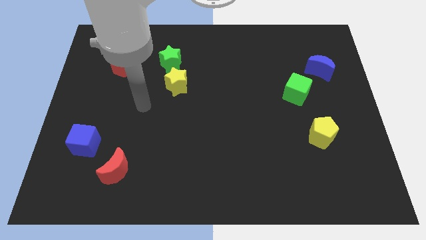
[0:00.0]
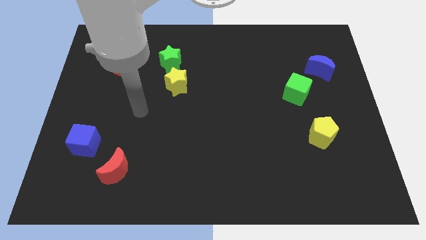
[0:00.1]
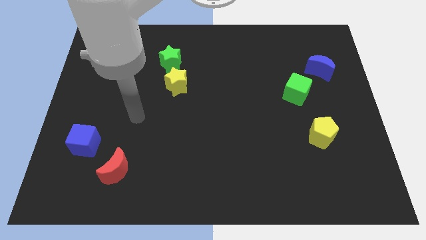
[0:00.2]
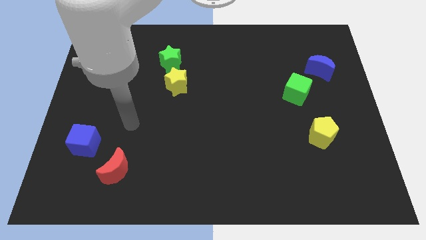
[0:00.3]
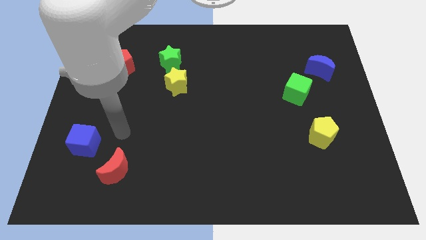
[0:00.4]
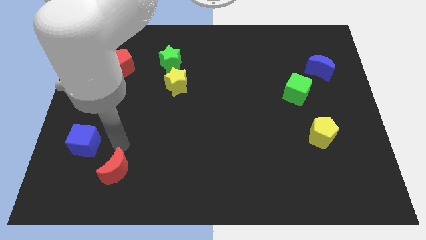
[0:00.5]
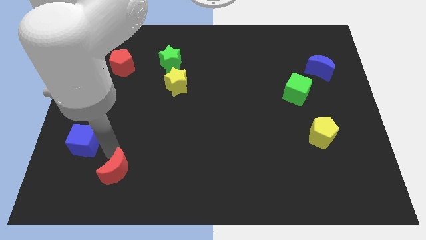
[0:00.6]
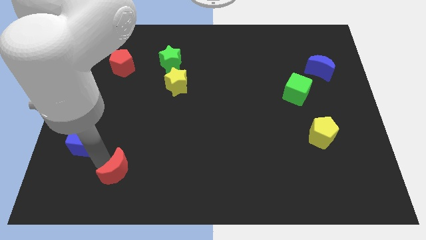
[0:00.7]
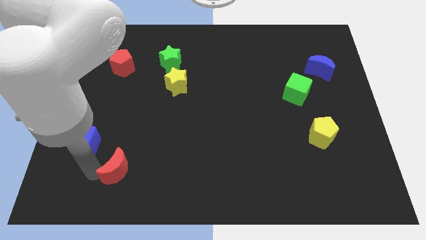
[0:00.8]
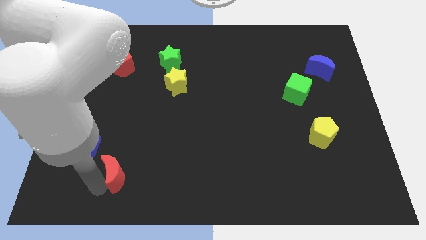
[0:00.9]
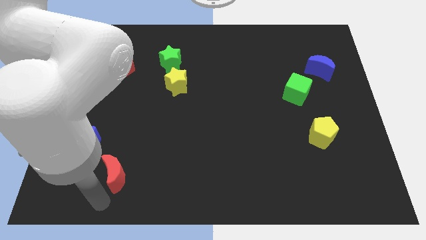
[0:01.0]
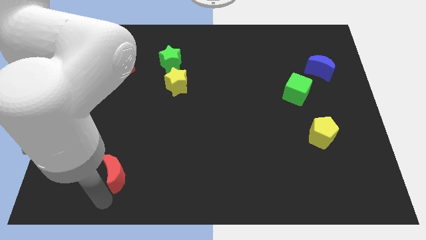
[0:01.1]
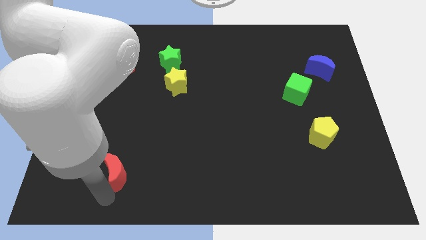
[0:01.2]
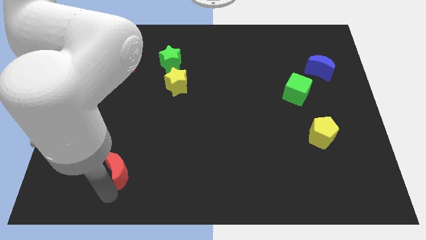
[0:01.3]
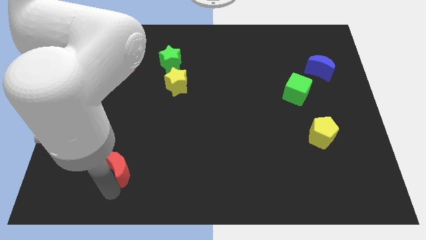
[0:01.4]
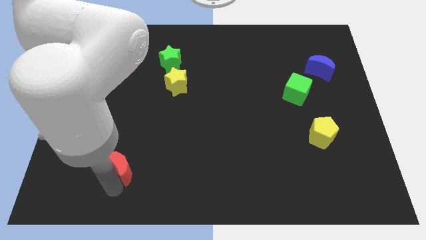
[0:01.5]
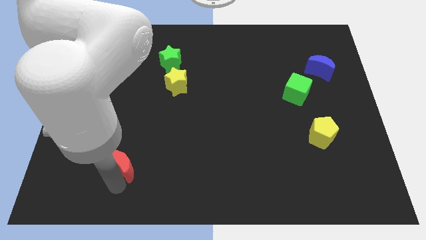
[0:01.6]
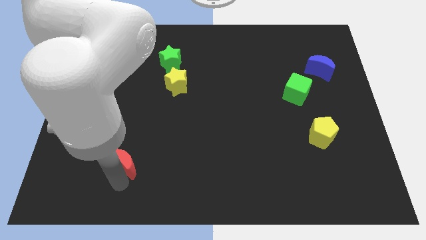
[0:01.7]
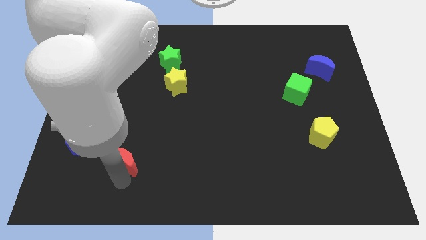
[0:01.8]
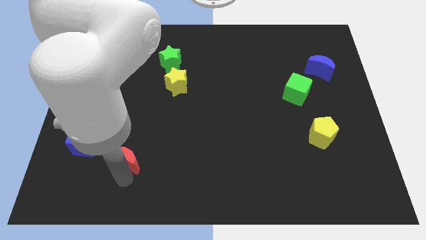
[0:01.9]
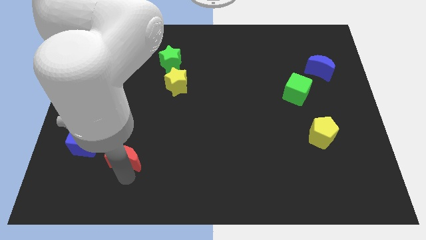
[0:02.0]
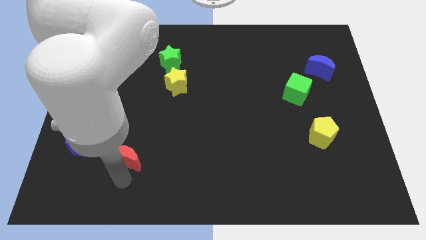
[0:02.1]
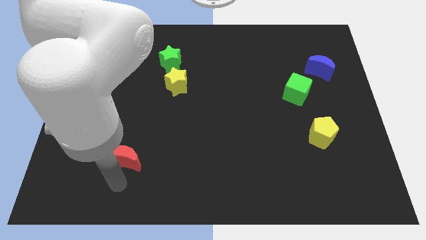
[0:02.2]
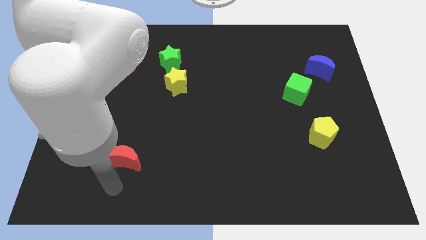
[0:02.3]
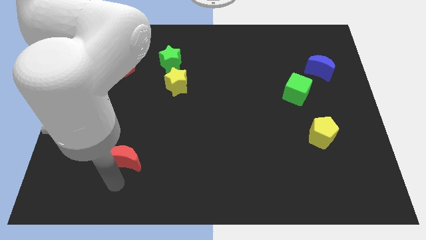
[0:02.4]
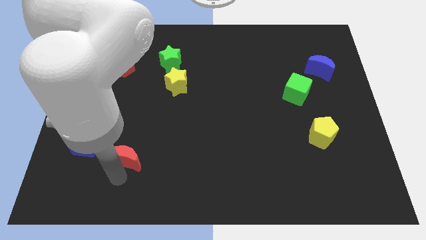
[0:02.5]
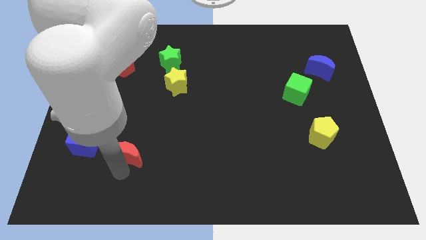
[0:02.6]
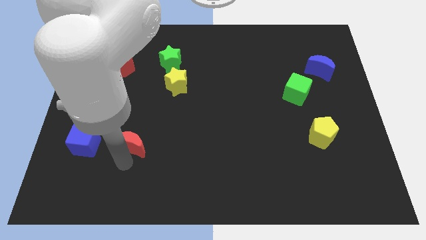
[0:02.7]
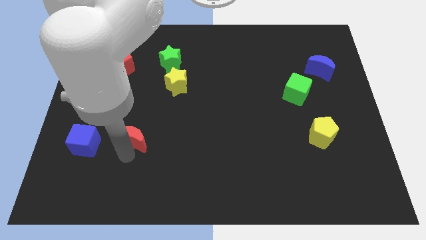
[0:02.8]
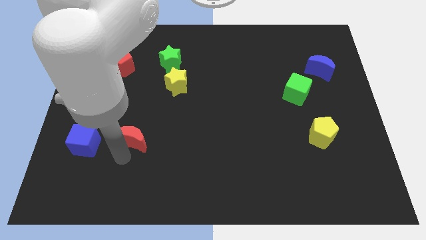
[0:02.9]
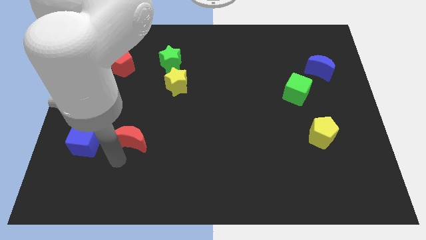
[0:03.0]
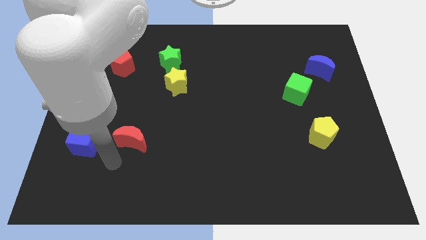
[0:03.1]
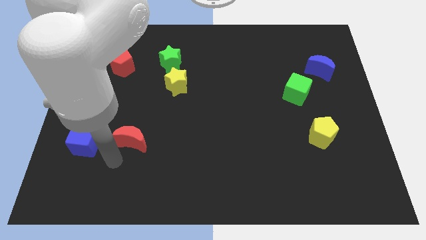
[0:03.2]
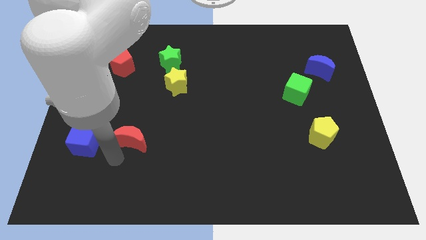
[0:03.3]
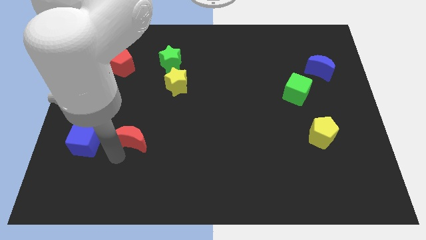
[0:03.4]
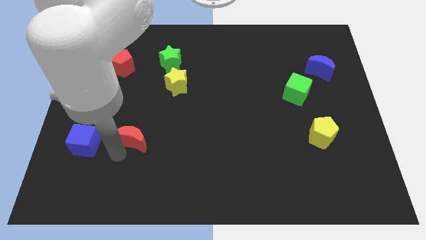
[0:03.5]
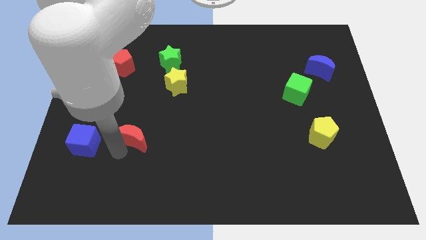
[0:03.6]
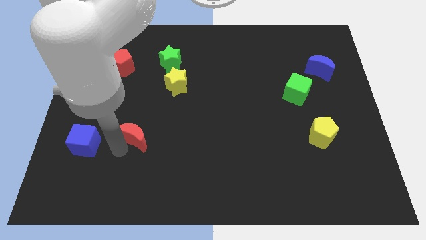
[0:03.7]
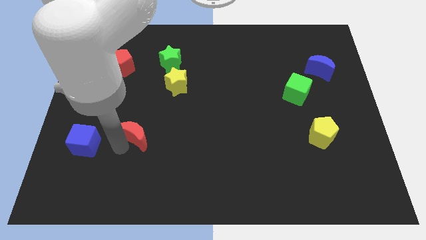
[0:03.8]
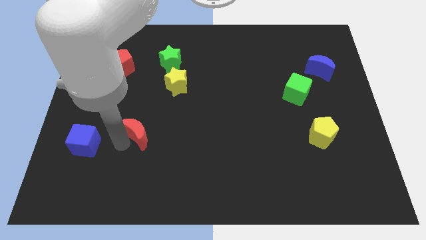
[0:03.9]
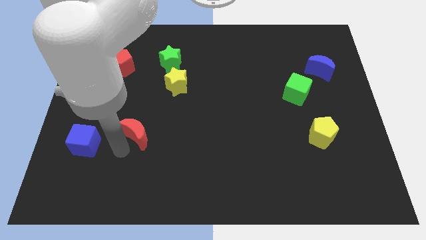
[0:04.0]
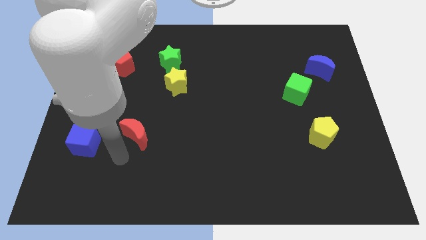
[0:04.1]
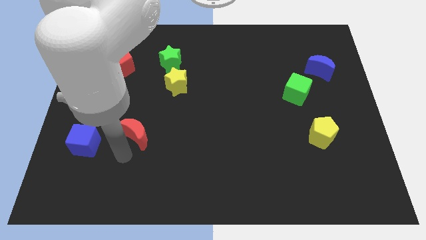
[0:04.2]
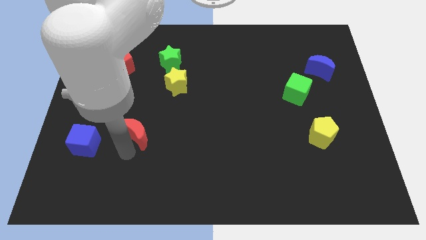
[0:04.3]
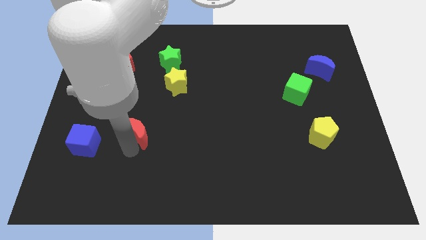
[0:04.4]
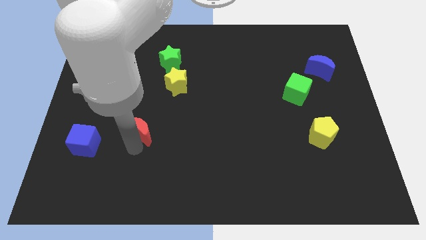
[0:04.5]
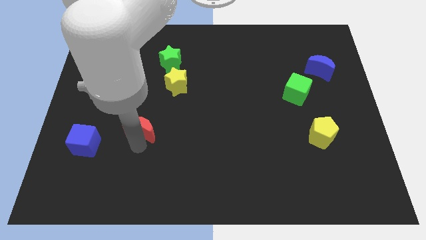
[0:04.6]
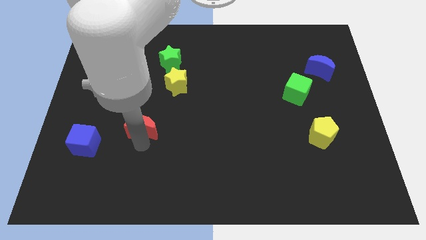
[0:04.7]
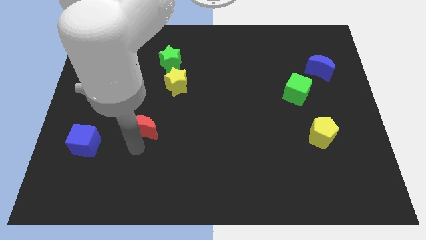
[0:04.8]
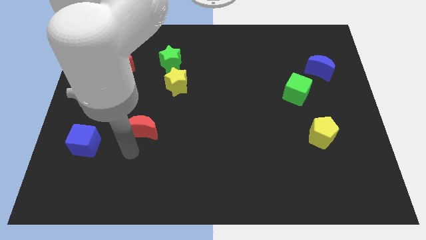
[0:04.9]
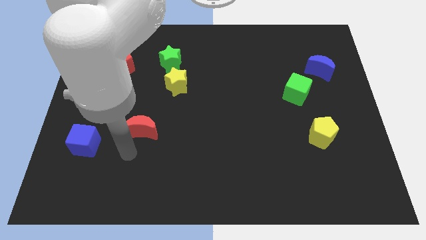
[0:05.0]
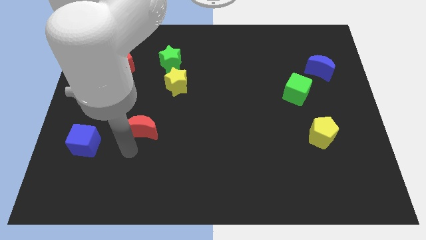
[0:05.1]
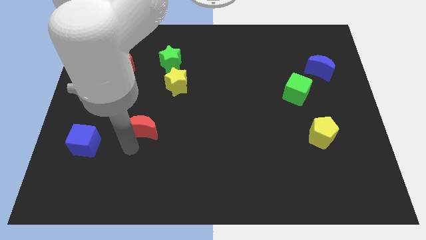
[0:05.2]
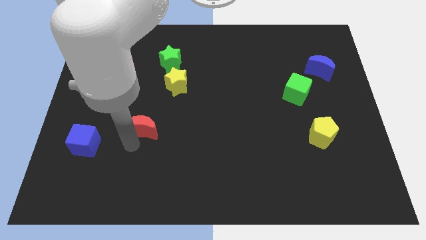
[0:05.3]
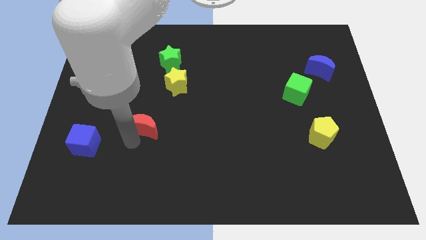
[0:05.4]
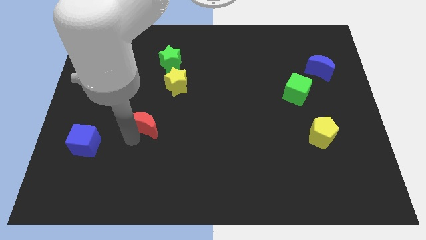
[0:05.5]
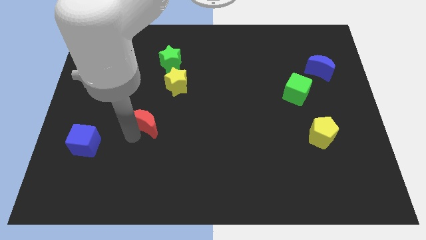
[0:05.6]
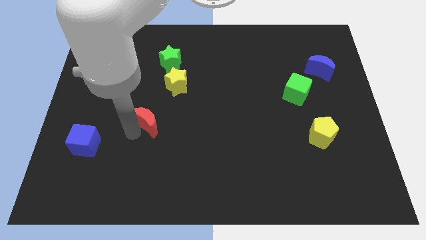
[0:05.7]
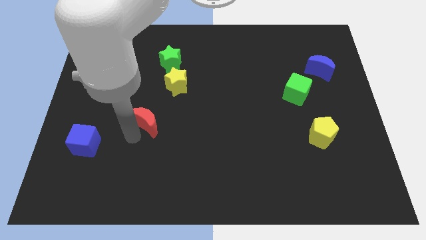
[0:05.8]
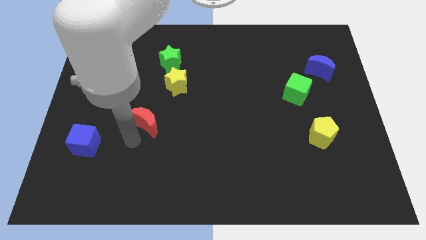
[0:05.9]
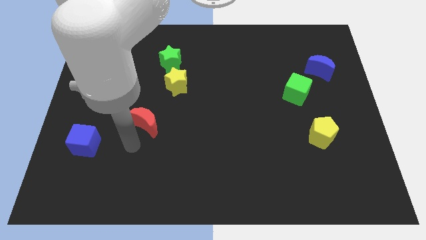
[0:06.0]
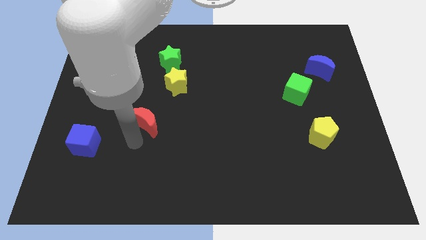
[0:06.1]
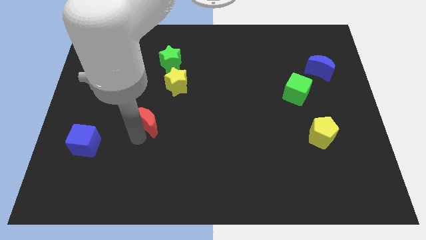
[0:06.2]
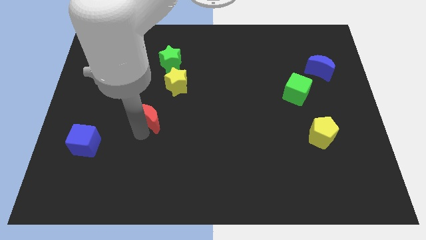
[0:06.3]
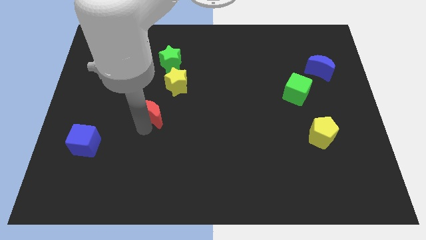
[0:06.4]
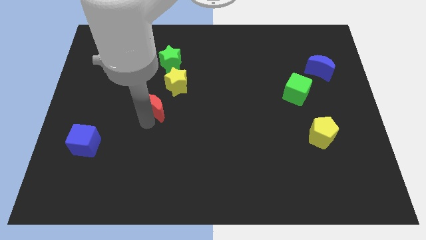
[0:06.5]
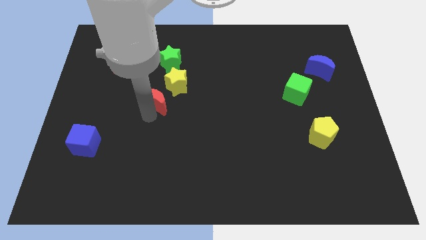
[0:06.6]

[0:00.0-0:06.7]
slide the red moon to the bottom of the green star

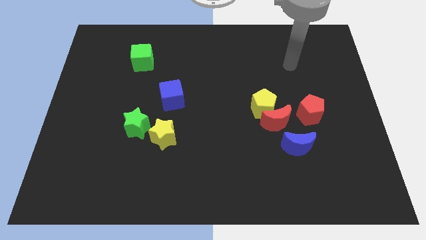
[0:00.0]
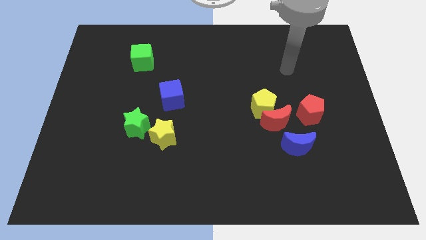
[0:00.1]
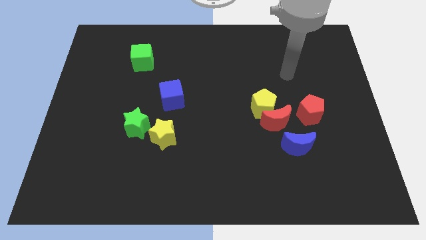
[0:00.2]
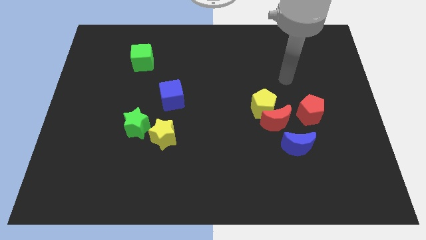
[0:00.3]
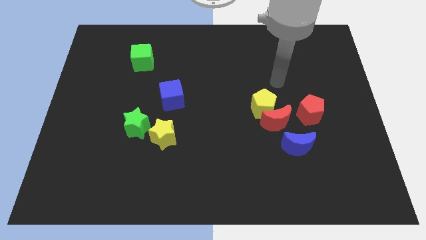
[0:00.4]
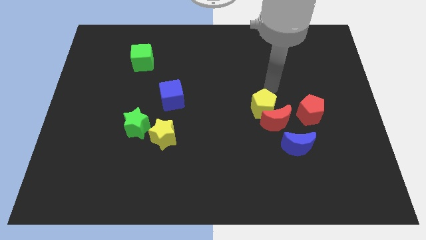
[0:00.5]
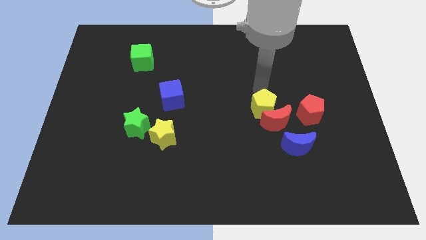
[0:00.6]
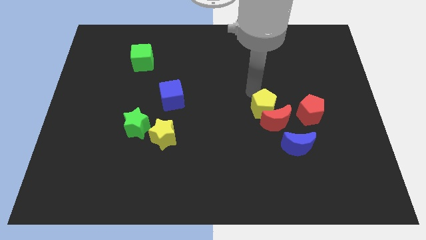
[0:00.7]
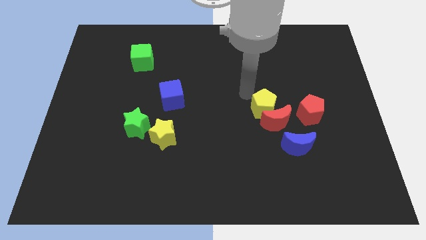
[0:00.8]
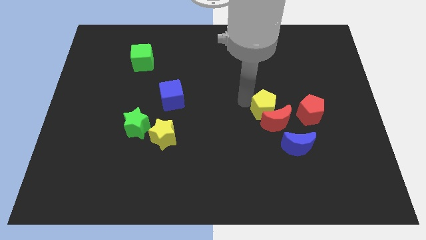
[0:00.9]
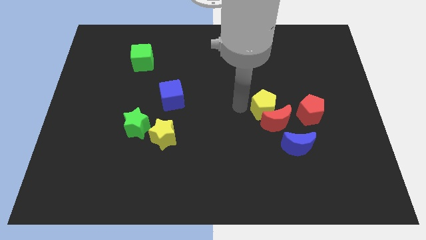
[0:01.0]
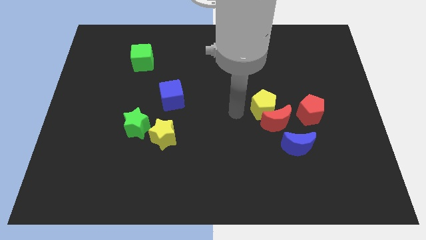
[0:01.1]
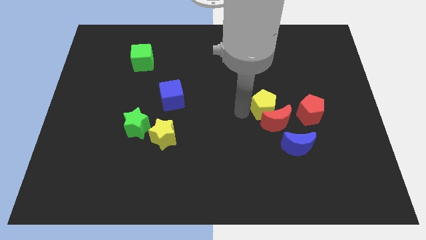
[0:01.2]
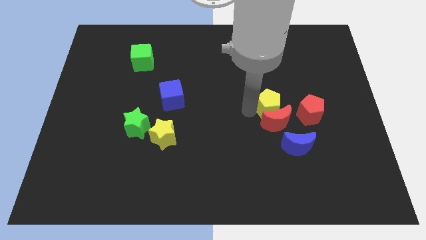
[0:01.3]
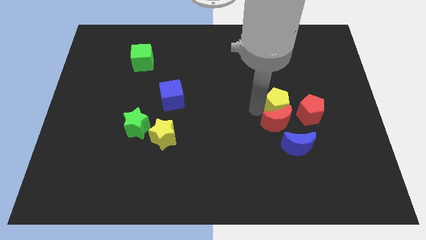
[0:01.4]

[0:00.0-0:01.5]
move the yellow pentagon to the top side of the blue moon
